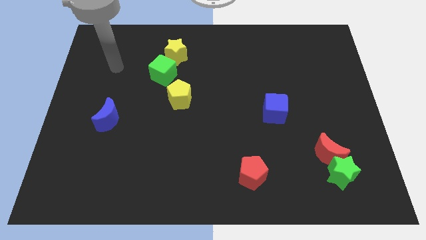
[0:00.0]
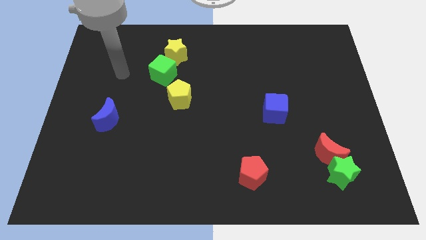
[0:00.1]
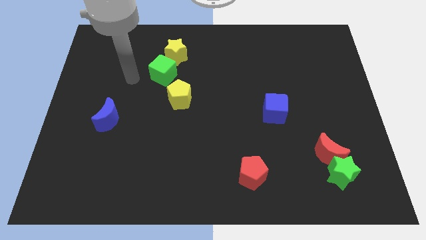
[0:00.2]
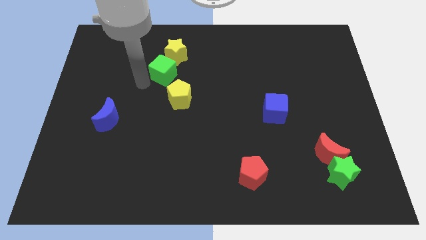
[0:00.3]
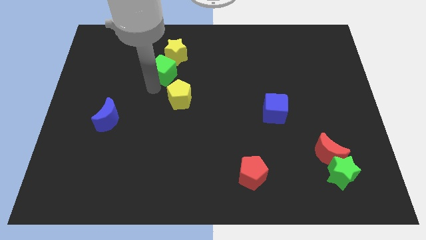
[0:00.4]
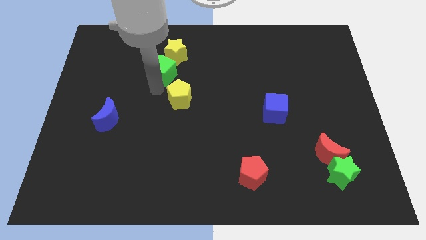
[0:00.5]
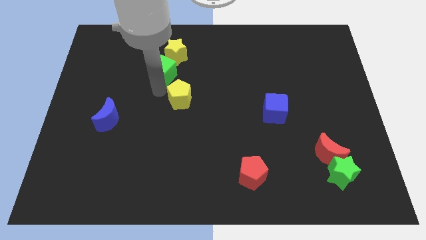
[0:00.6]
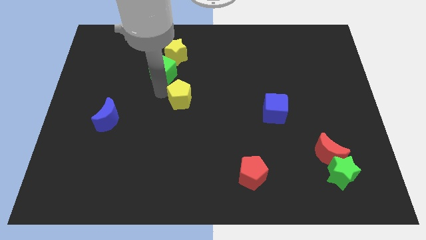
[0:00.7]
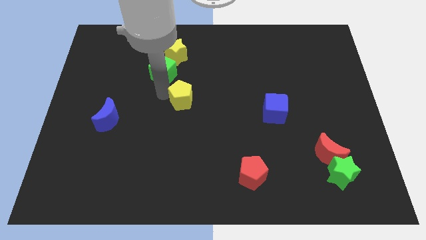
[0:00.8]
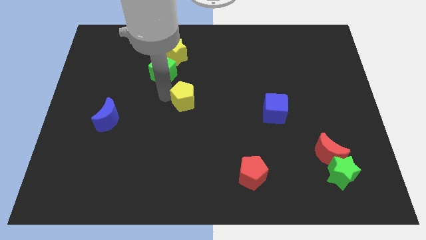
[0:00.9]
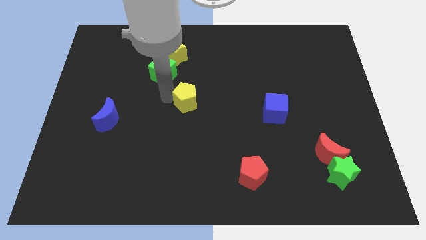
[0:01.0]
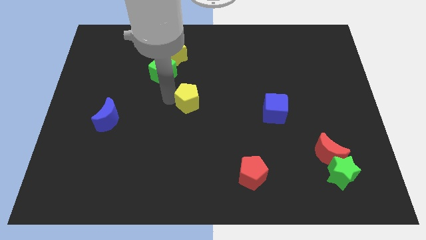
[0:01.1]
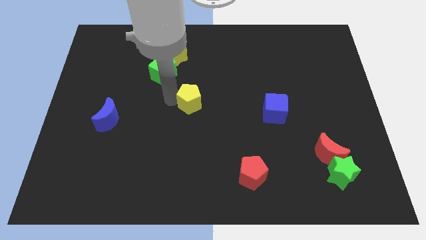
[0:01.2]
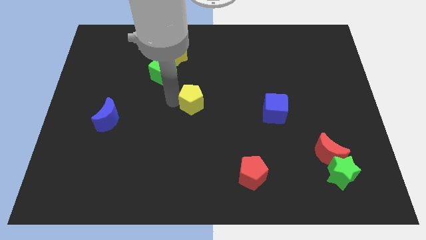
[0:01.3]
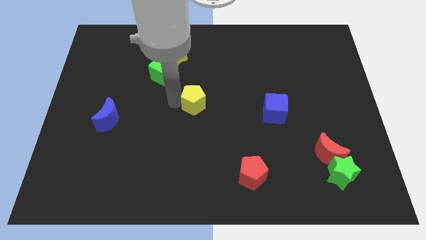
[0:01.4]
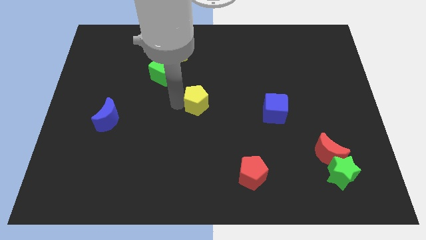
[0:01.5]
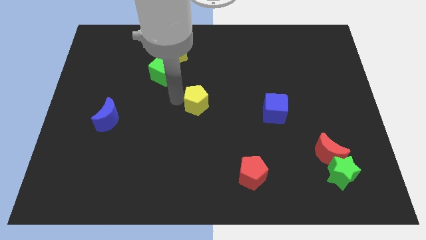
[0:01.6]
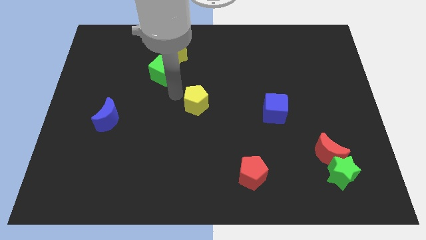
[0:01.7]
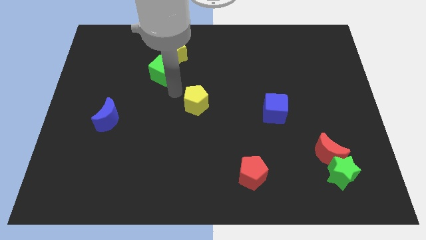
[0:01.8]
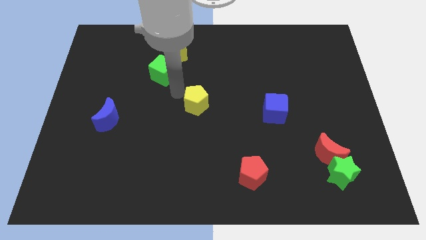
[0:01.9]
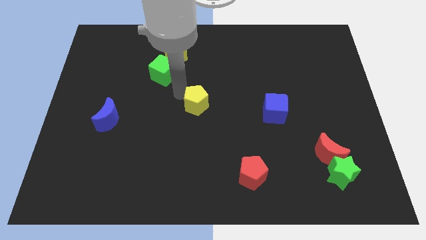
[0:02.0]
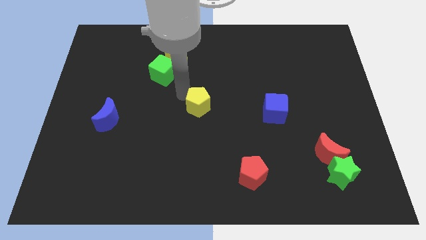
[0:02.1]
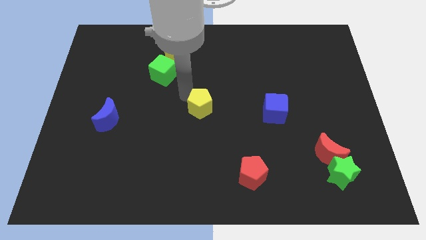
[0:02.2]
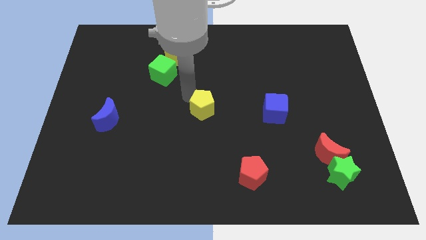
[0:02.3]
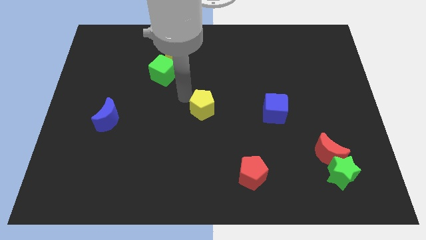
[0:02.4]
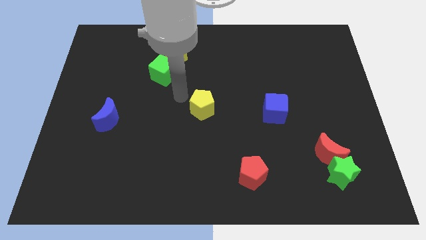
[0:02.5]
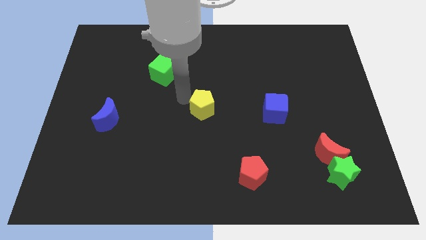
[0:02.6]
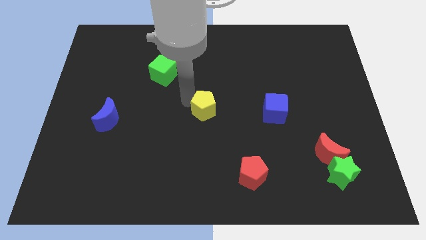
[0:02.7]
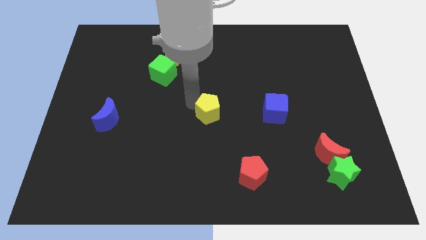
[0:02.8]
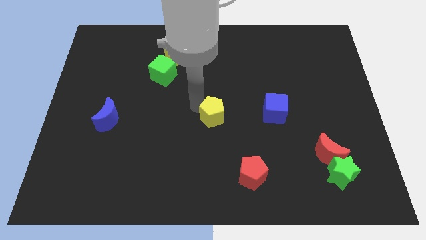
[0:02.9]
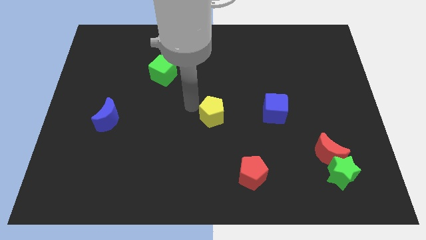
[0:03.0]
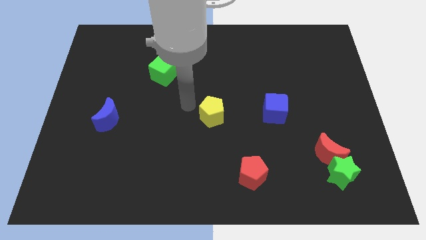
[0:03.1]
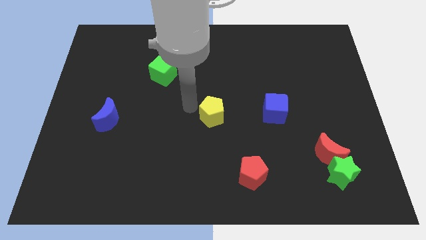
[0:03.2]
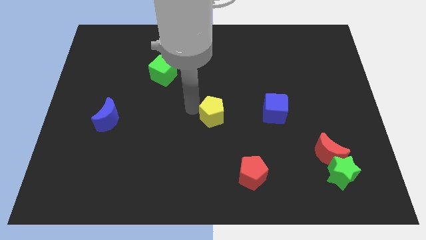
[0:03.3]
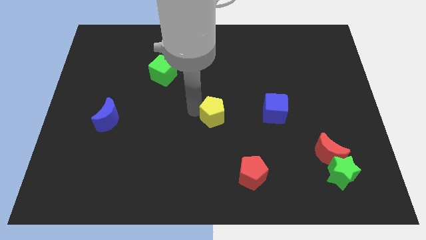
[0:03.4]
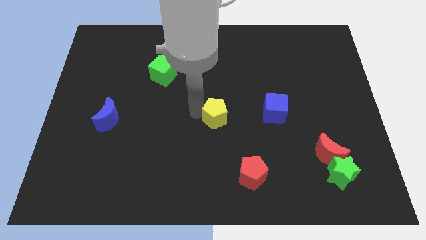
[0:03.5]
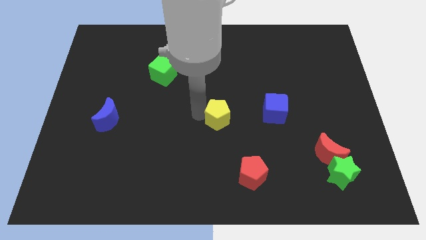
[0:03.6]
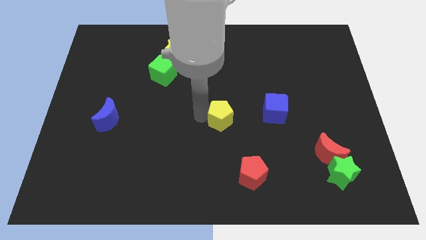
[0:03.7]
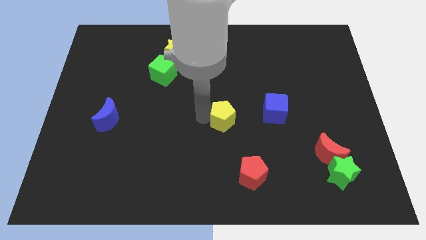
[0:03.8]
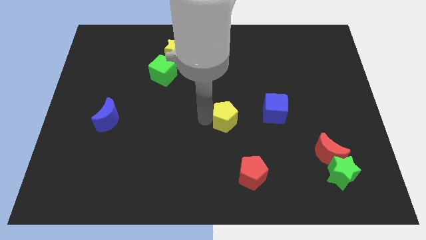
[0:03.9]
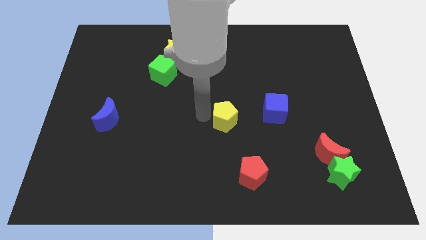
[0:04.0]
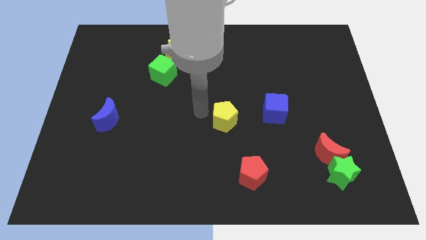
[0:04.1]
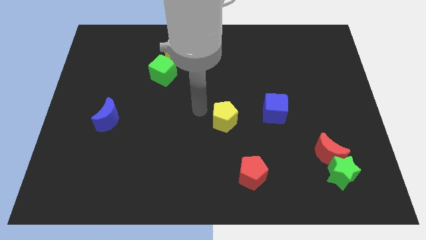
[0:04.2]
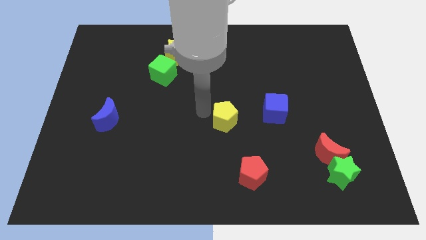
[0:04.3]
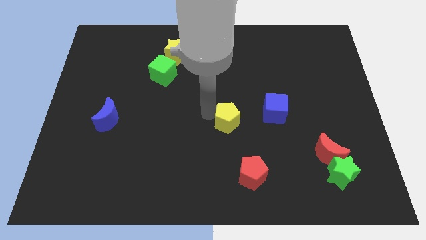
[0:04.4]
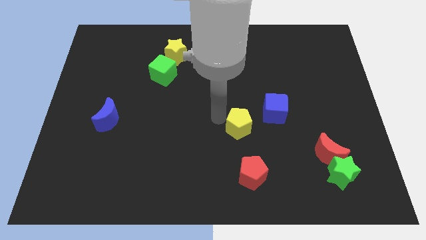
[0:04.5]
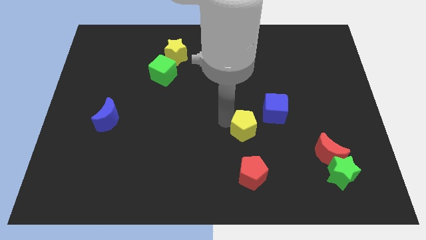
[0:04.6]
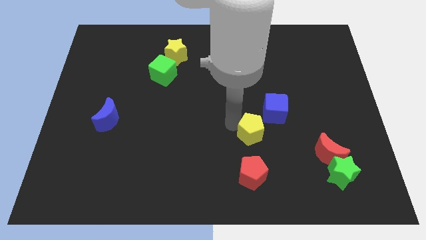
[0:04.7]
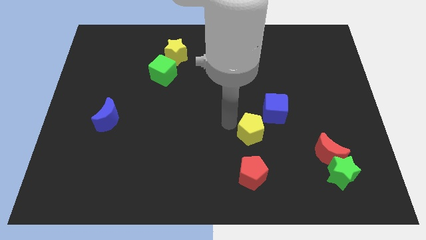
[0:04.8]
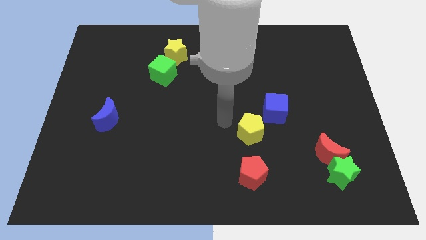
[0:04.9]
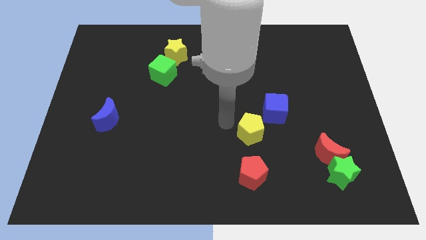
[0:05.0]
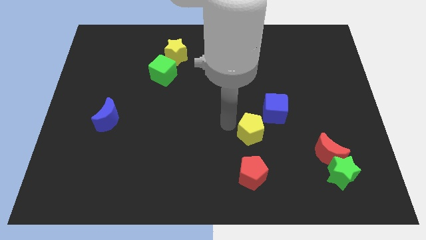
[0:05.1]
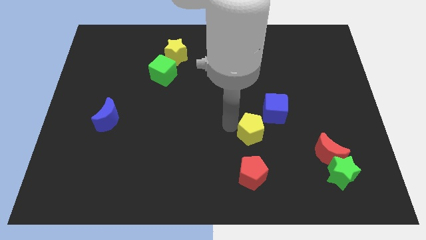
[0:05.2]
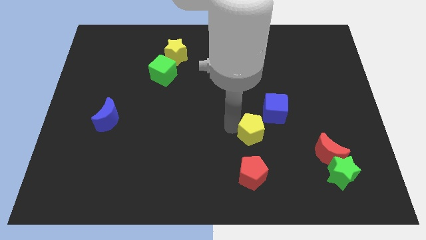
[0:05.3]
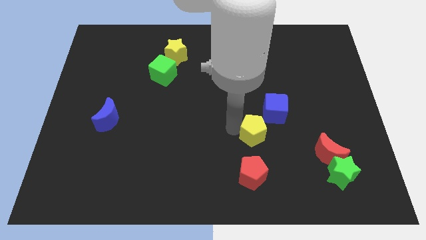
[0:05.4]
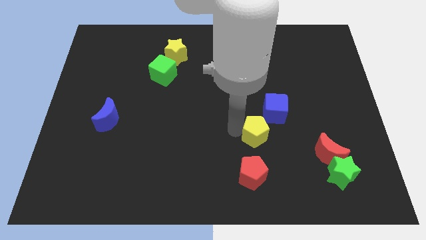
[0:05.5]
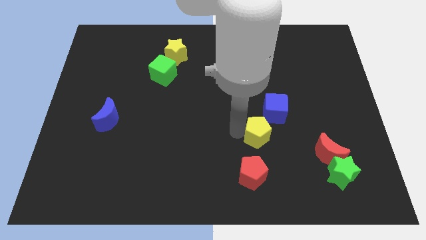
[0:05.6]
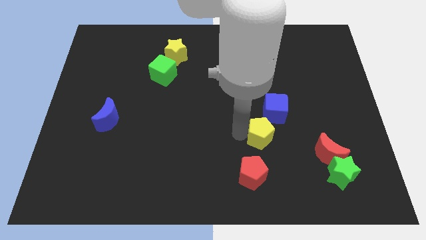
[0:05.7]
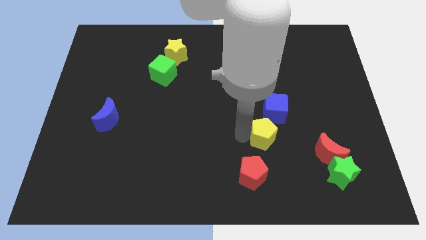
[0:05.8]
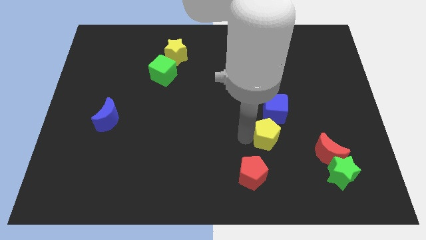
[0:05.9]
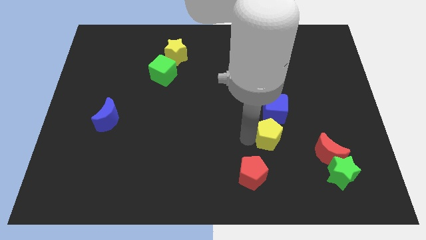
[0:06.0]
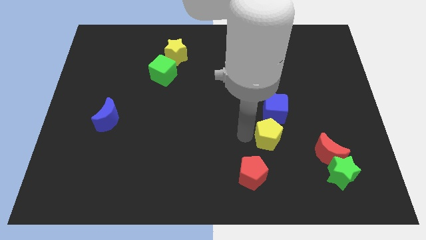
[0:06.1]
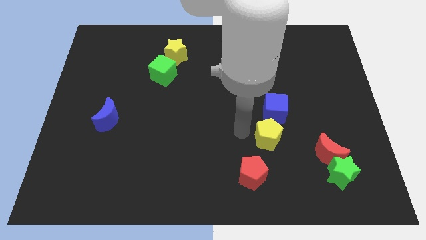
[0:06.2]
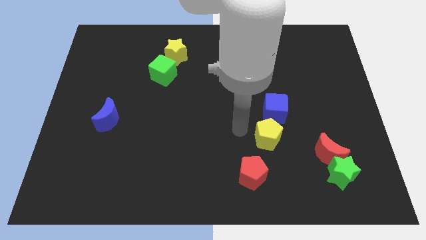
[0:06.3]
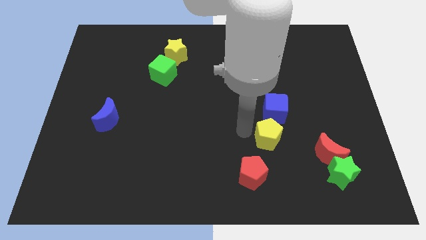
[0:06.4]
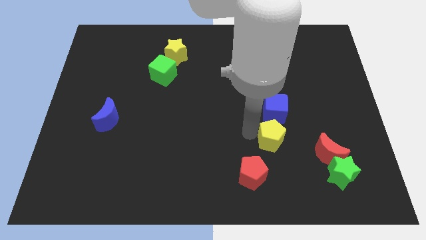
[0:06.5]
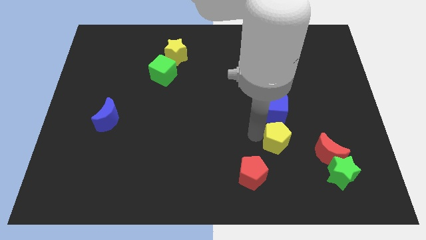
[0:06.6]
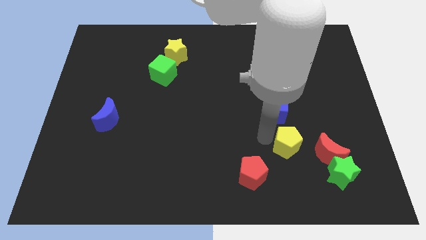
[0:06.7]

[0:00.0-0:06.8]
push the yellow pentagon to the top left of the green star
